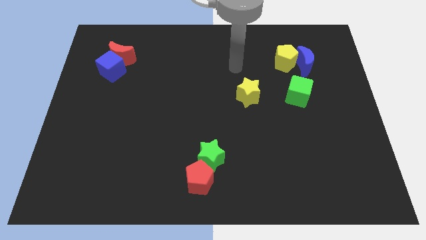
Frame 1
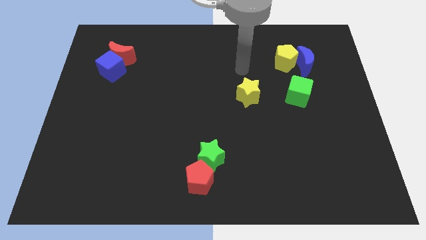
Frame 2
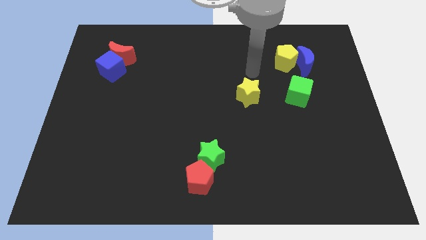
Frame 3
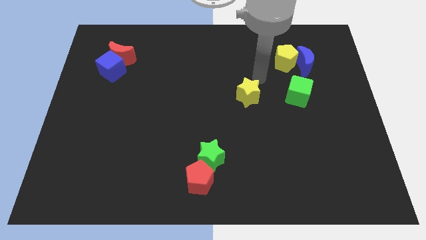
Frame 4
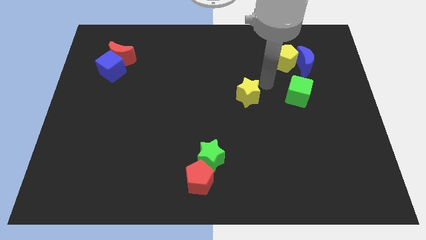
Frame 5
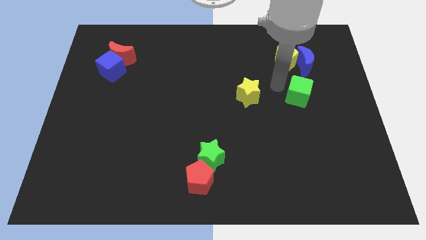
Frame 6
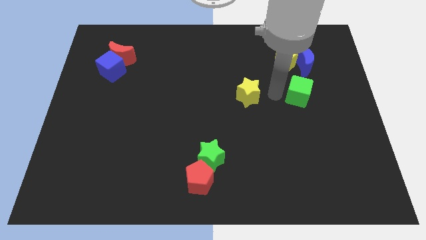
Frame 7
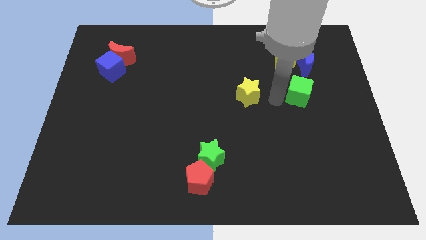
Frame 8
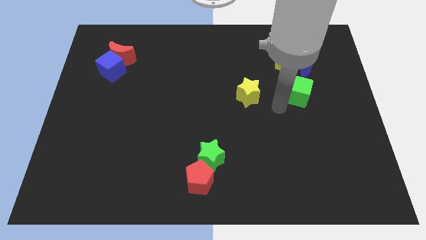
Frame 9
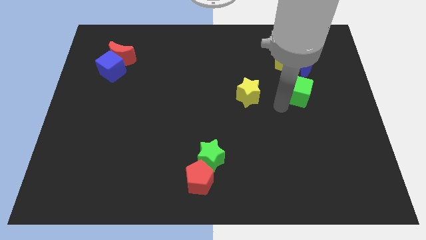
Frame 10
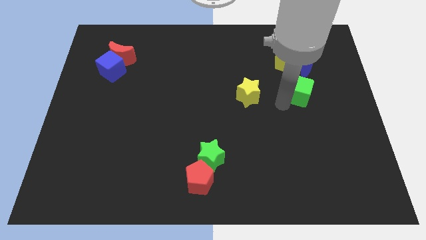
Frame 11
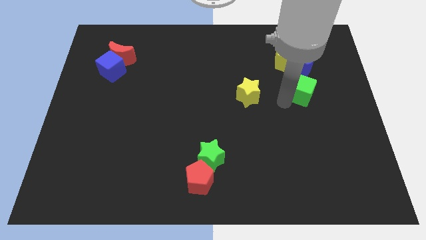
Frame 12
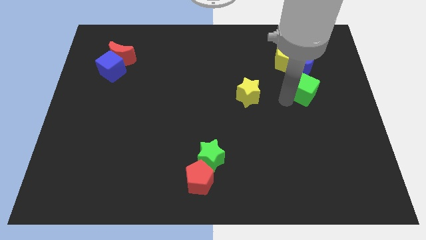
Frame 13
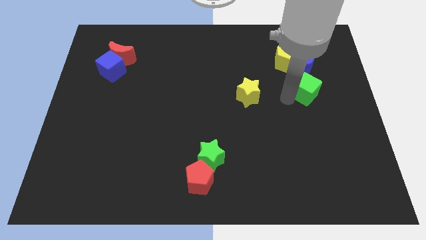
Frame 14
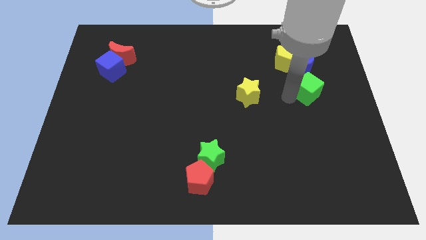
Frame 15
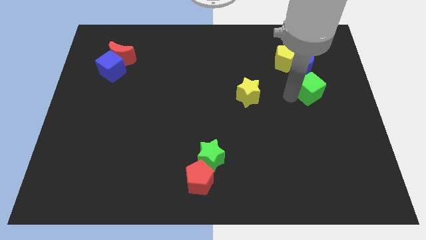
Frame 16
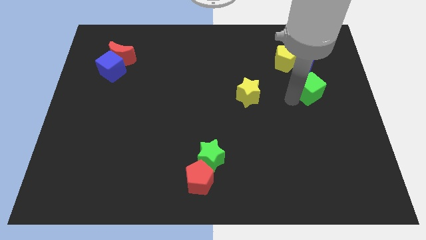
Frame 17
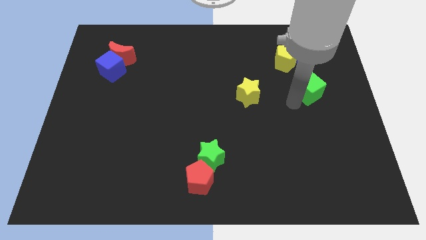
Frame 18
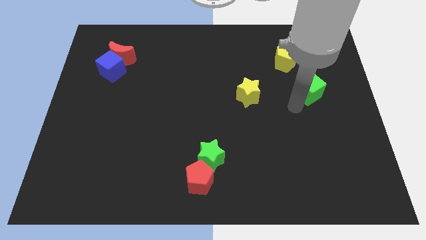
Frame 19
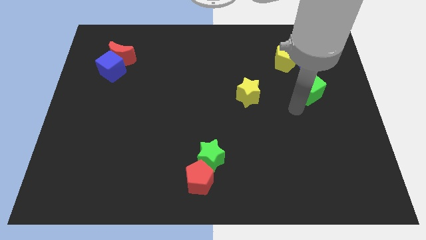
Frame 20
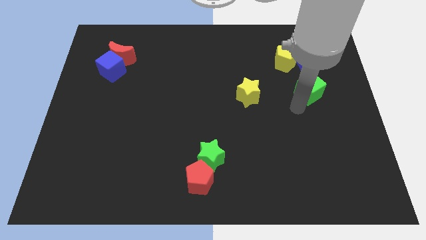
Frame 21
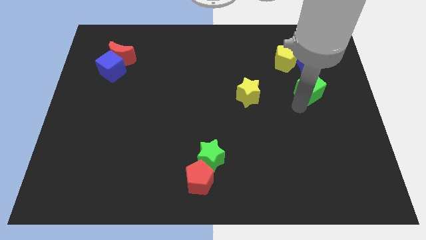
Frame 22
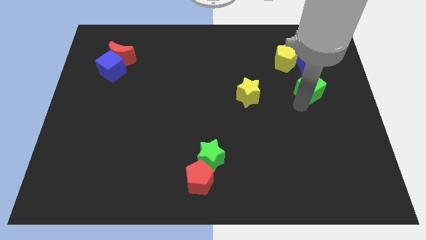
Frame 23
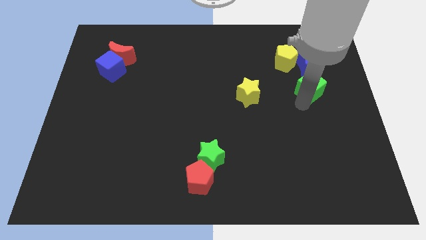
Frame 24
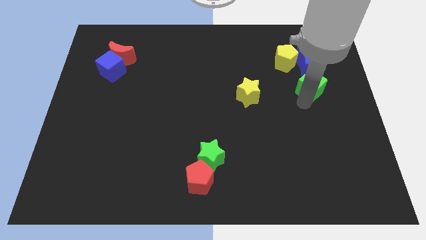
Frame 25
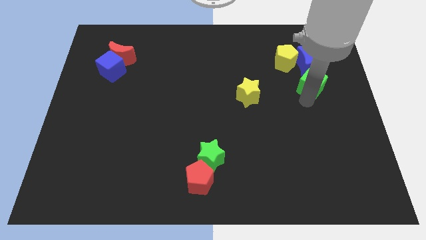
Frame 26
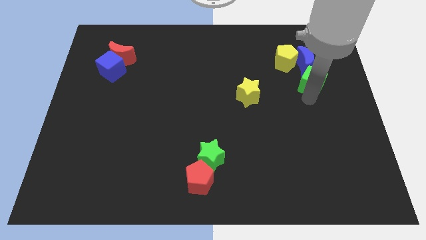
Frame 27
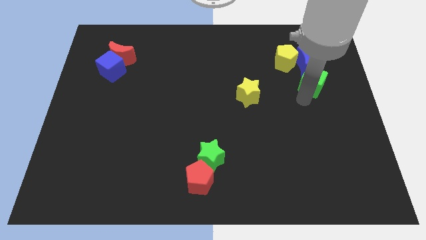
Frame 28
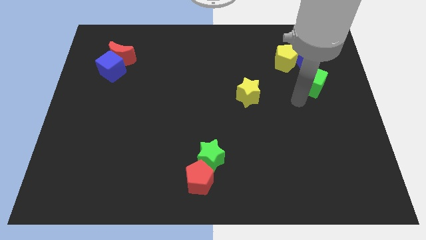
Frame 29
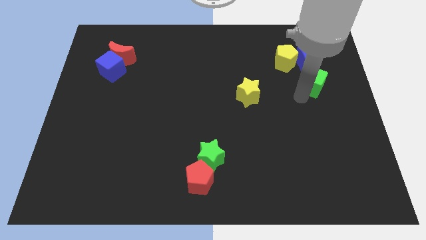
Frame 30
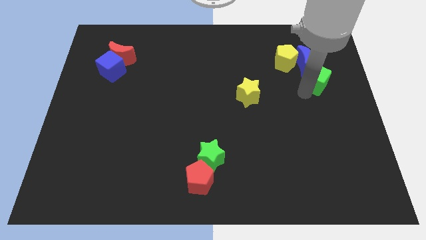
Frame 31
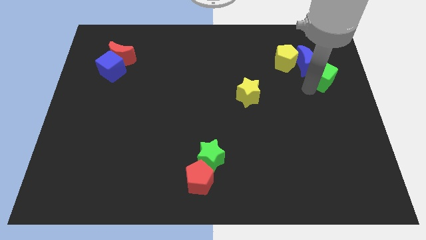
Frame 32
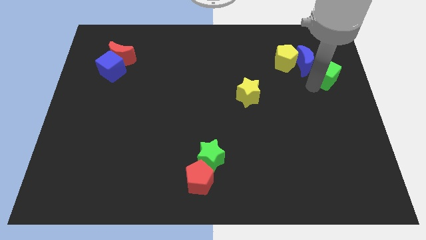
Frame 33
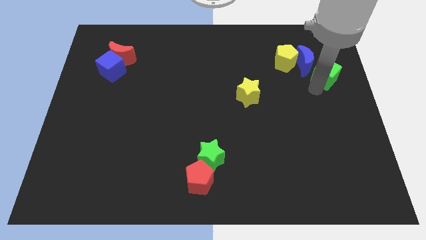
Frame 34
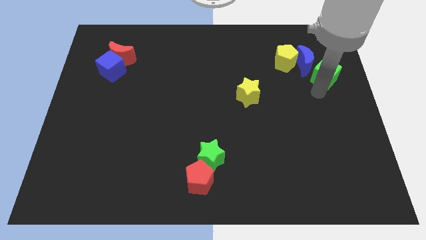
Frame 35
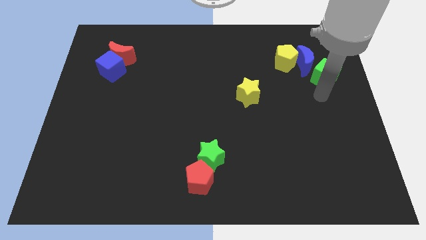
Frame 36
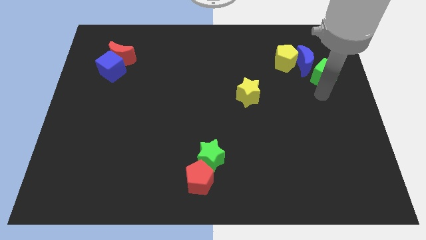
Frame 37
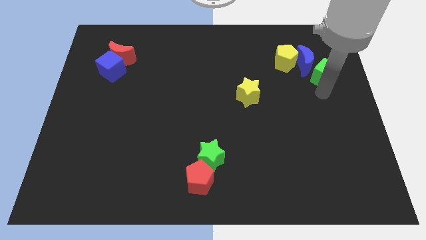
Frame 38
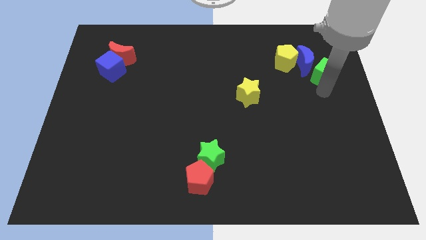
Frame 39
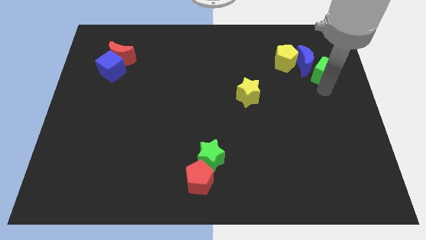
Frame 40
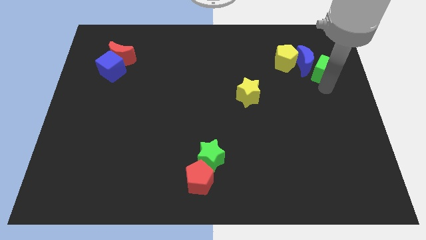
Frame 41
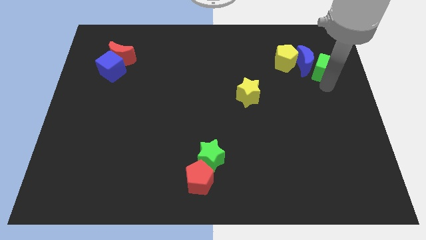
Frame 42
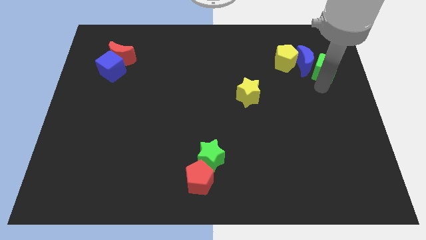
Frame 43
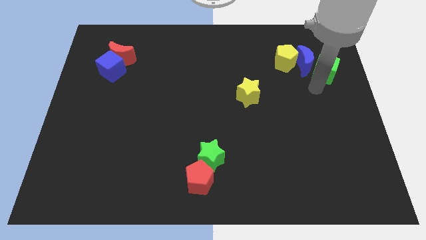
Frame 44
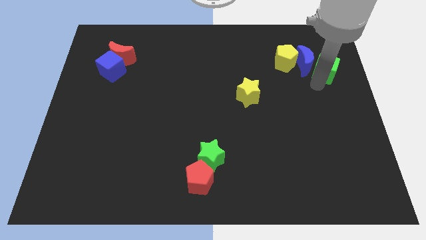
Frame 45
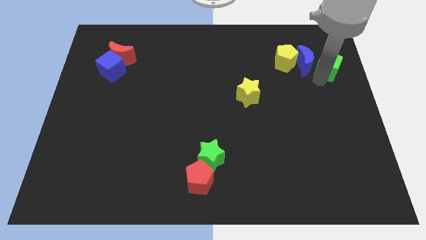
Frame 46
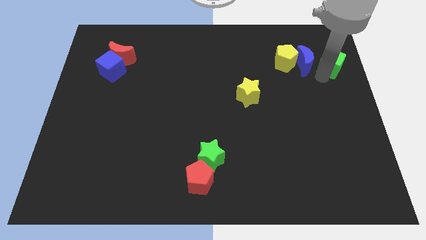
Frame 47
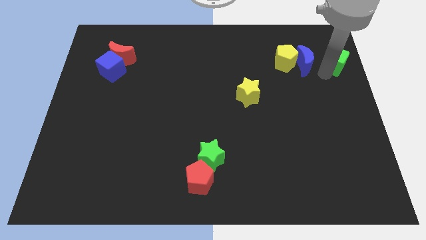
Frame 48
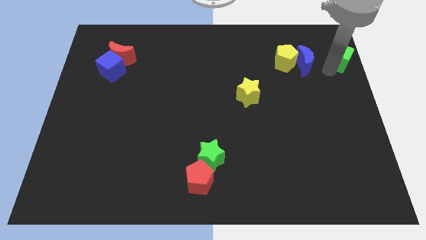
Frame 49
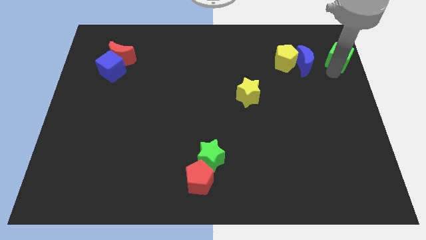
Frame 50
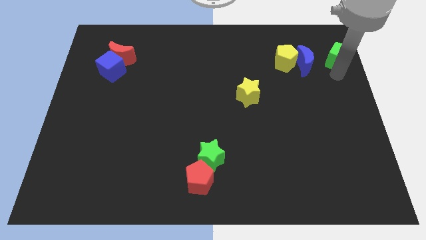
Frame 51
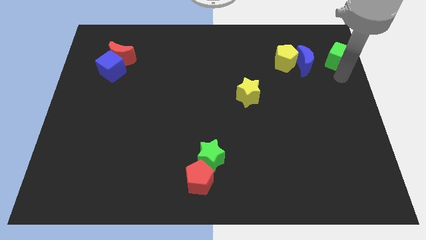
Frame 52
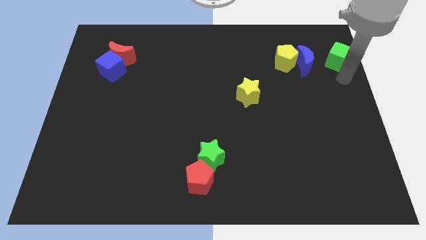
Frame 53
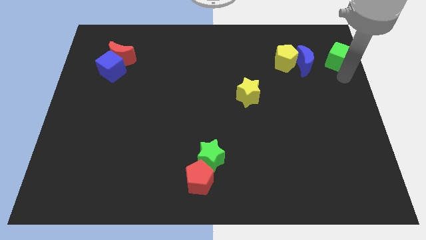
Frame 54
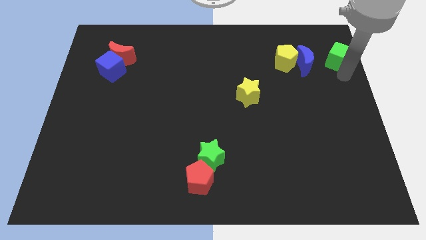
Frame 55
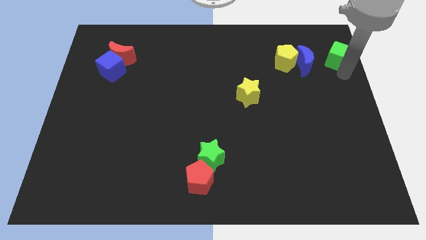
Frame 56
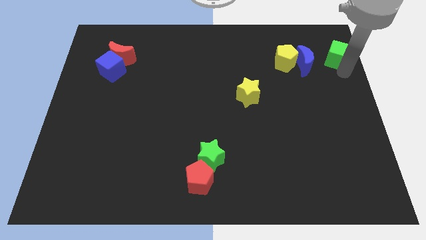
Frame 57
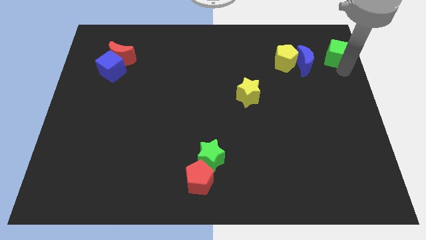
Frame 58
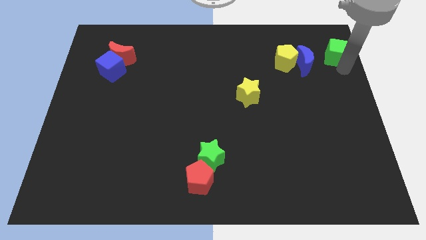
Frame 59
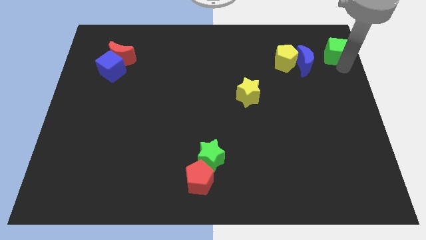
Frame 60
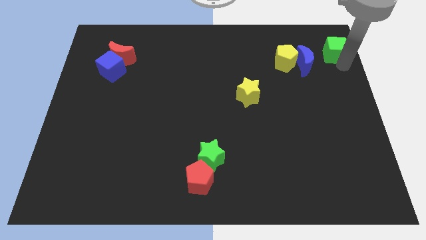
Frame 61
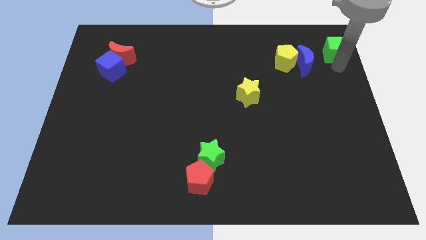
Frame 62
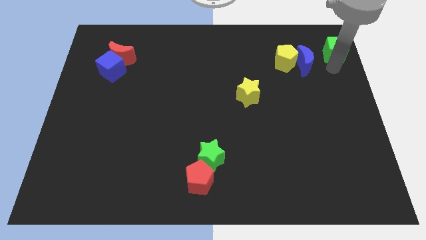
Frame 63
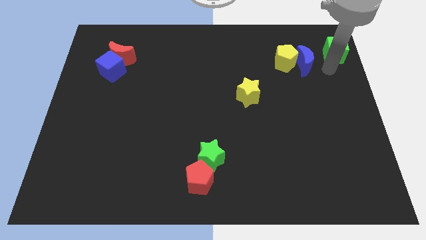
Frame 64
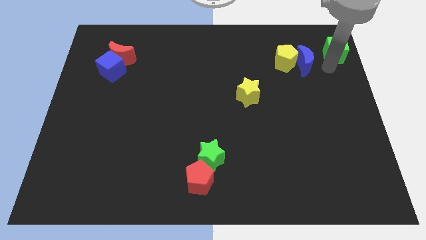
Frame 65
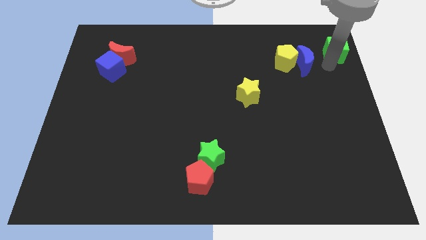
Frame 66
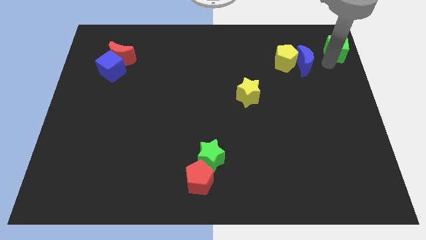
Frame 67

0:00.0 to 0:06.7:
push the green cube to the upper right corner
